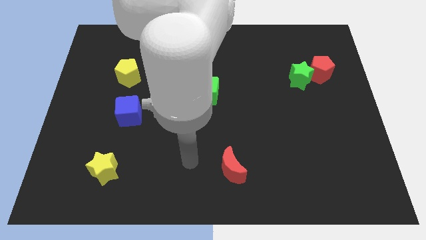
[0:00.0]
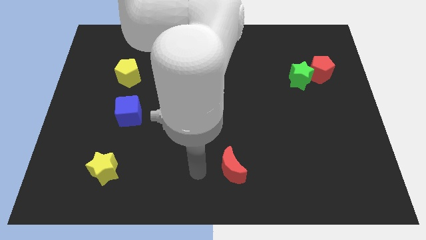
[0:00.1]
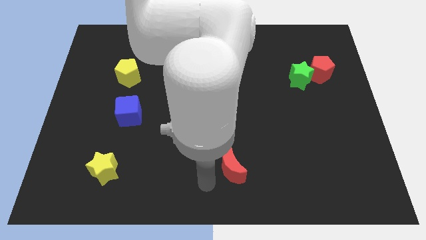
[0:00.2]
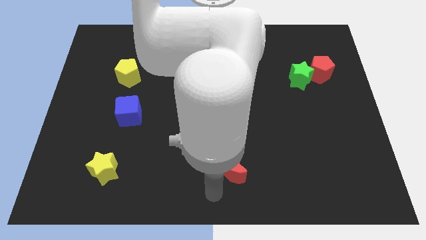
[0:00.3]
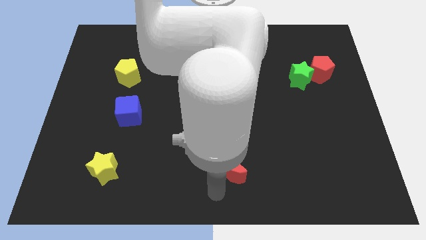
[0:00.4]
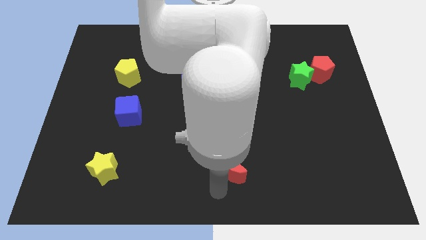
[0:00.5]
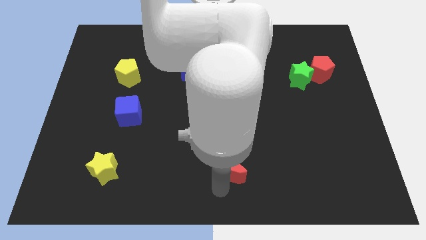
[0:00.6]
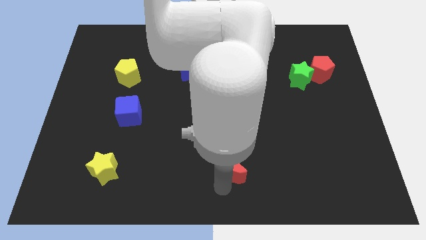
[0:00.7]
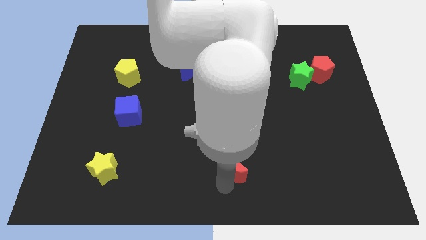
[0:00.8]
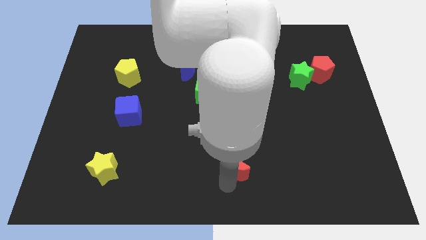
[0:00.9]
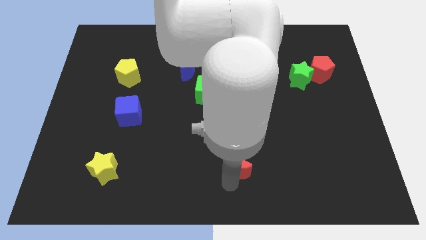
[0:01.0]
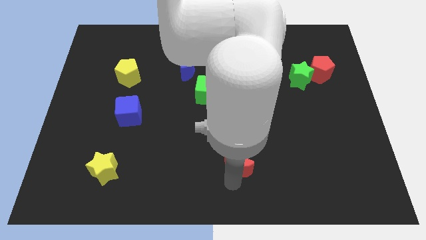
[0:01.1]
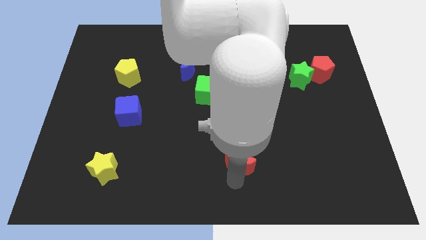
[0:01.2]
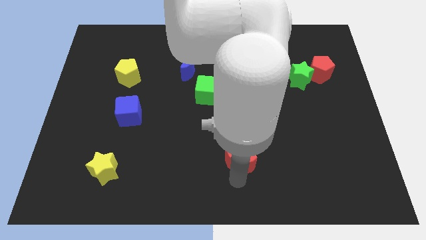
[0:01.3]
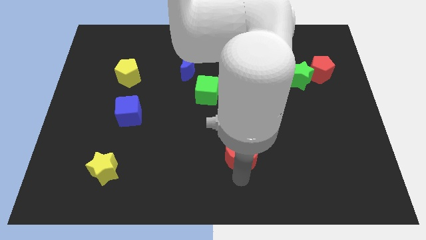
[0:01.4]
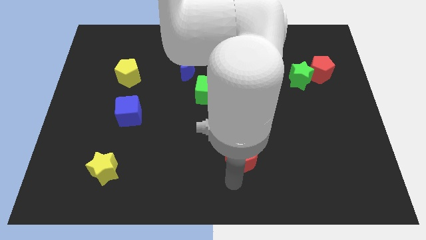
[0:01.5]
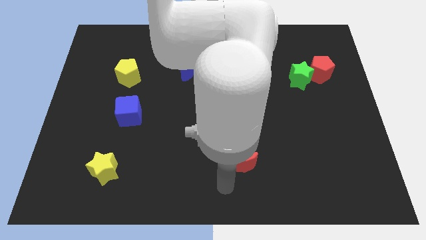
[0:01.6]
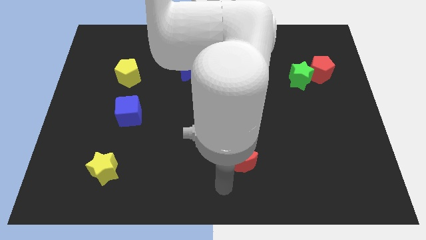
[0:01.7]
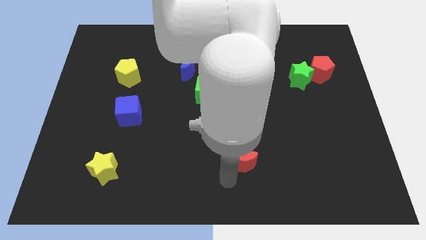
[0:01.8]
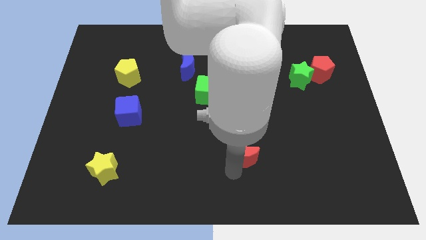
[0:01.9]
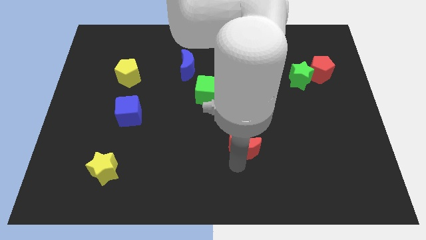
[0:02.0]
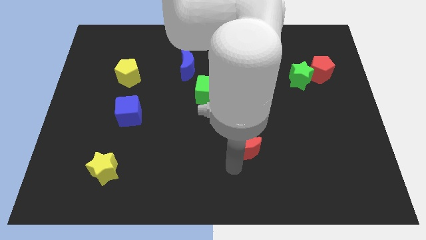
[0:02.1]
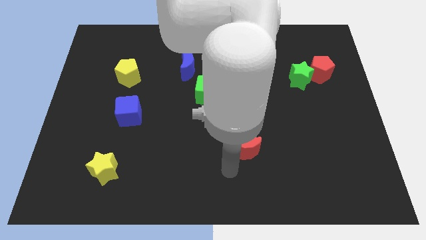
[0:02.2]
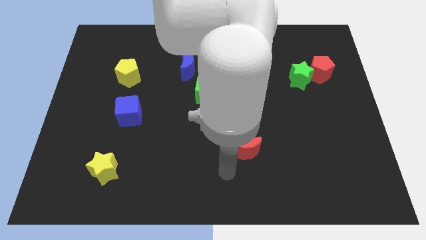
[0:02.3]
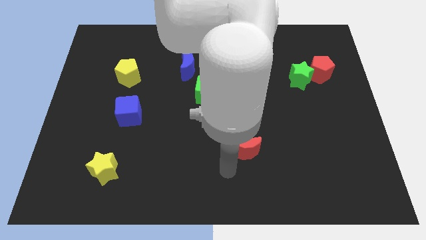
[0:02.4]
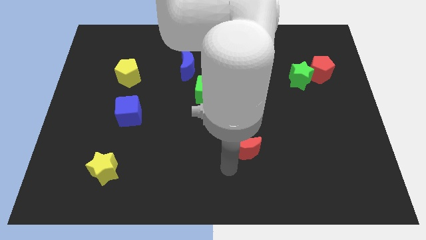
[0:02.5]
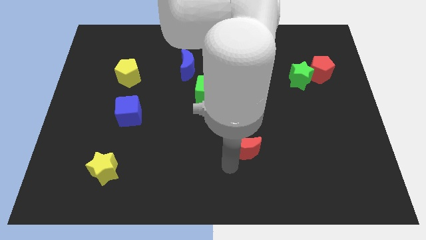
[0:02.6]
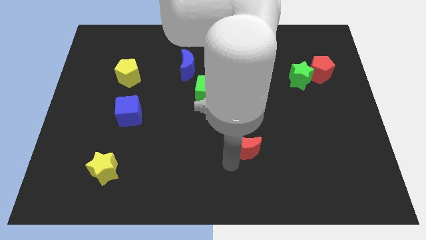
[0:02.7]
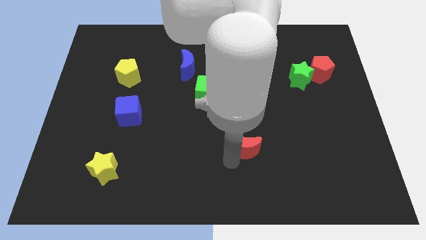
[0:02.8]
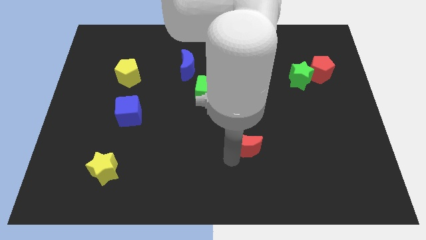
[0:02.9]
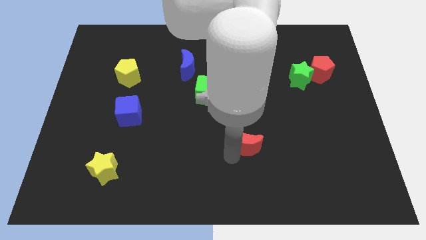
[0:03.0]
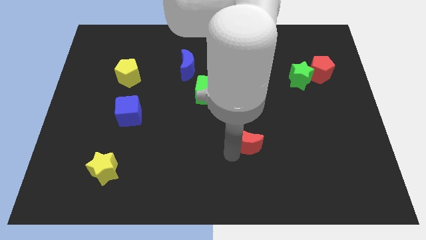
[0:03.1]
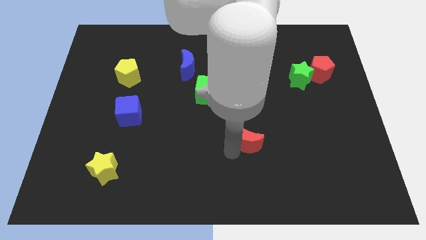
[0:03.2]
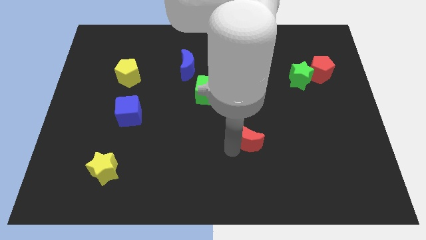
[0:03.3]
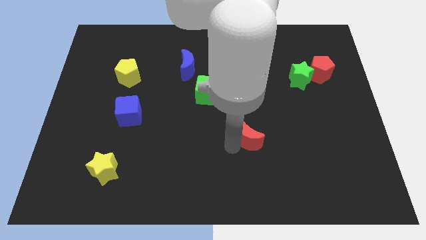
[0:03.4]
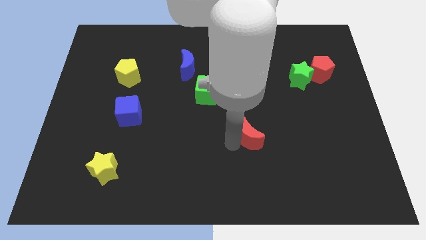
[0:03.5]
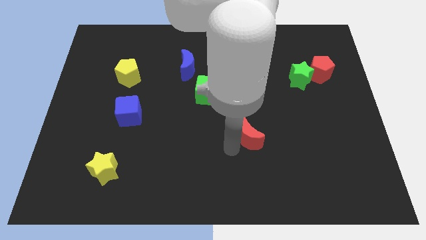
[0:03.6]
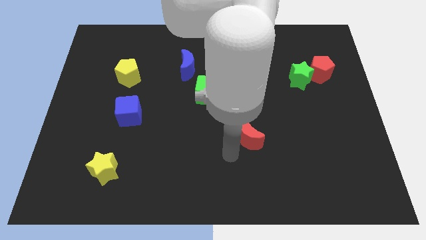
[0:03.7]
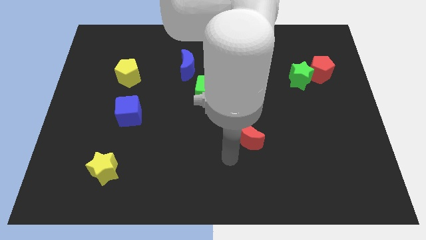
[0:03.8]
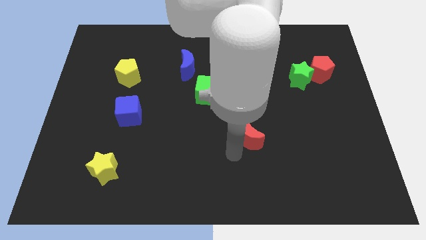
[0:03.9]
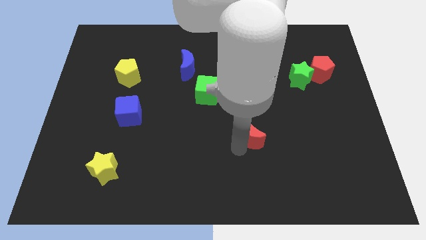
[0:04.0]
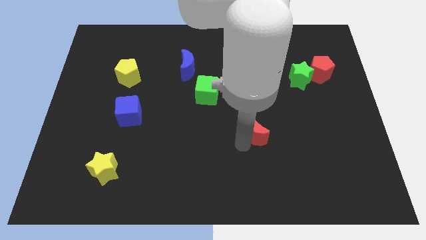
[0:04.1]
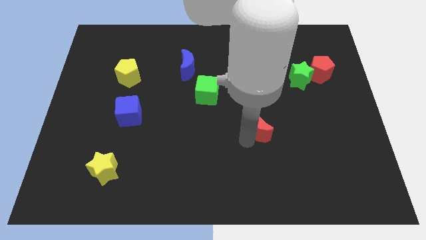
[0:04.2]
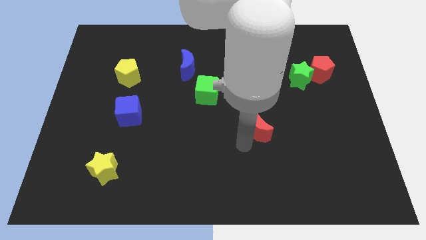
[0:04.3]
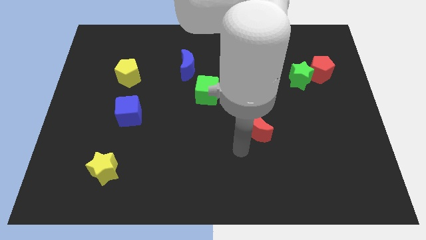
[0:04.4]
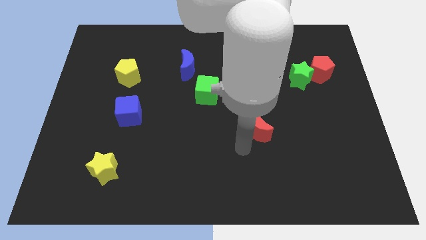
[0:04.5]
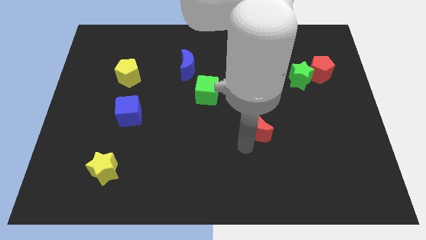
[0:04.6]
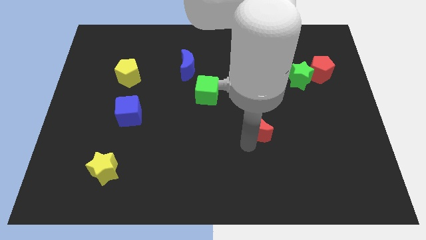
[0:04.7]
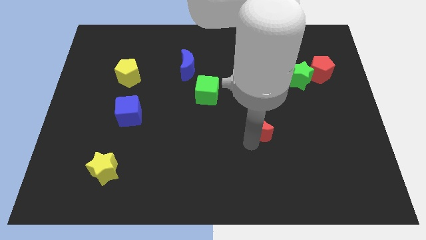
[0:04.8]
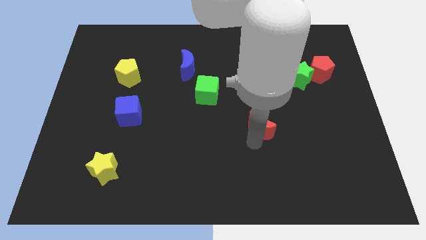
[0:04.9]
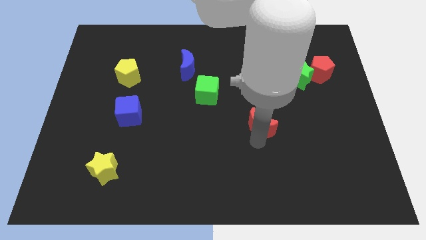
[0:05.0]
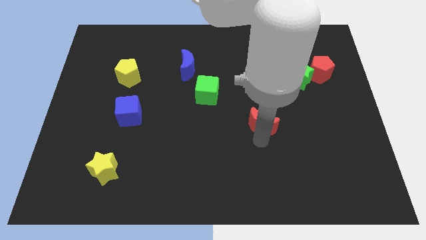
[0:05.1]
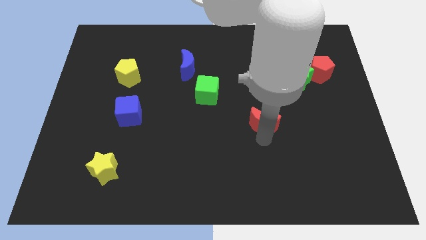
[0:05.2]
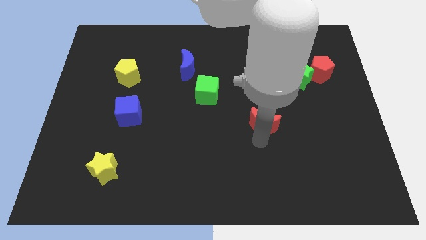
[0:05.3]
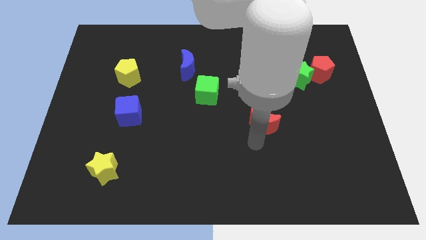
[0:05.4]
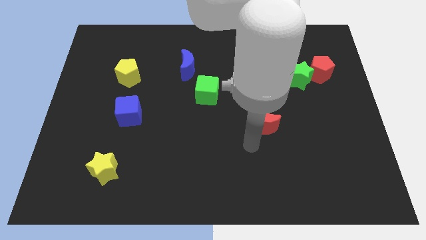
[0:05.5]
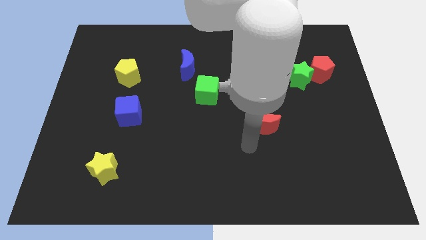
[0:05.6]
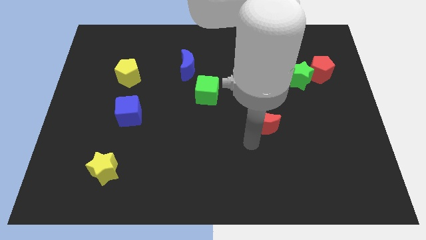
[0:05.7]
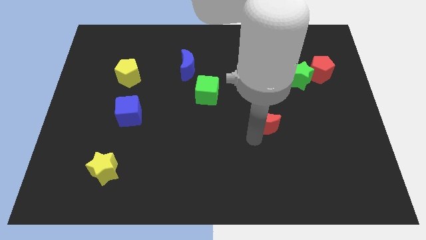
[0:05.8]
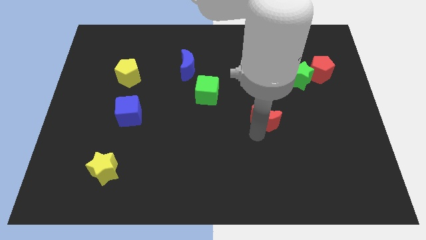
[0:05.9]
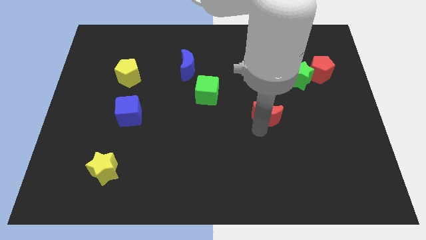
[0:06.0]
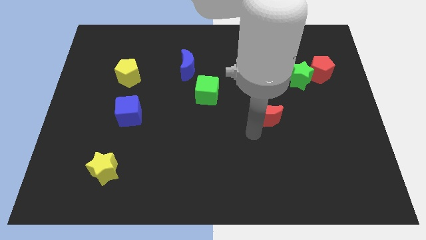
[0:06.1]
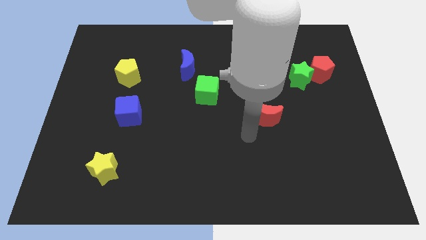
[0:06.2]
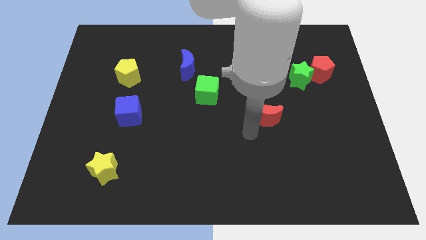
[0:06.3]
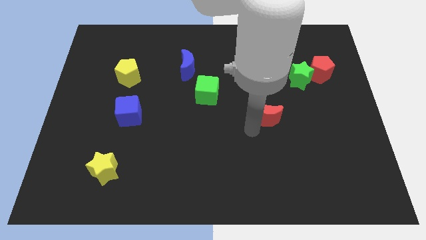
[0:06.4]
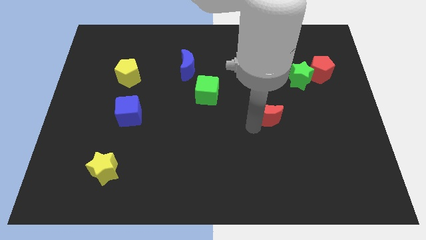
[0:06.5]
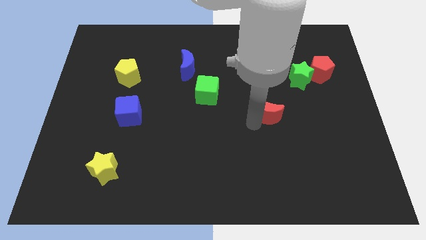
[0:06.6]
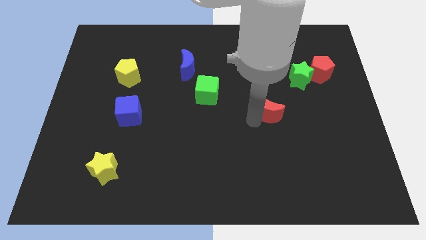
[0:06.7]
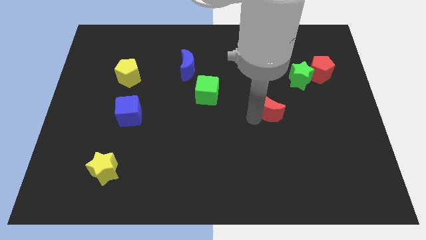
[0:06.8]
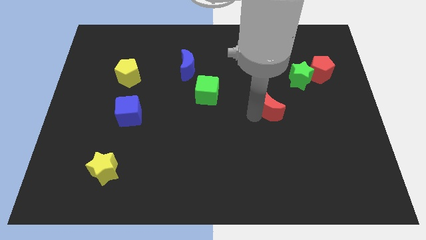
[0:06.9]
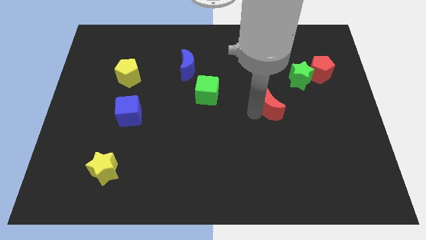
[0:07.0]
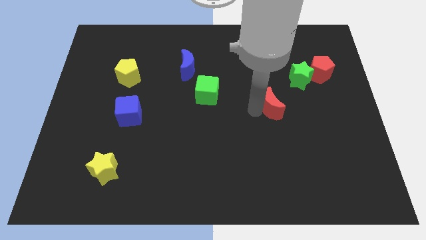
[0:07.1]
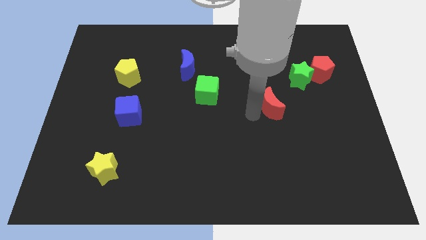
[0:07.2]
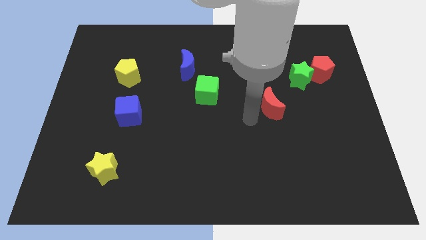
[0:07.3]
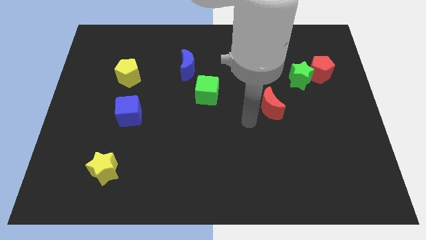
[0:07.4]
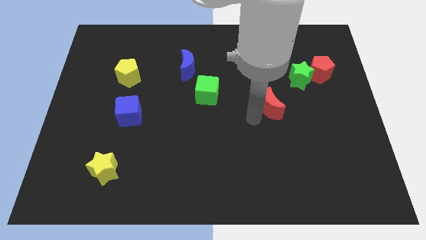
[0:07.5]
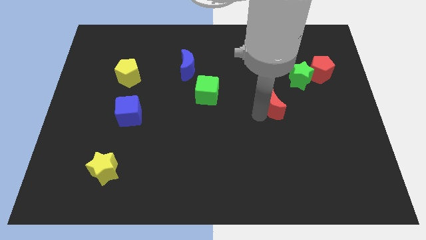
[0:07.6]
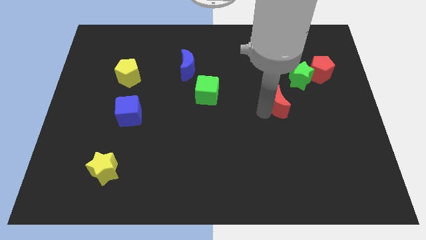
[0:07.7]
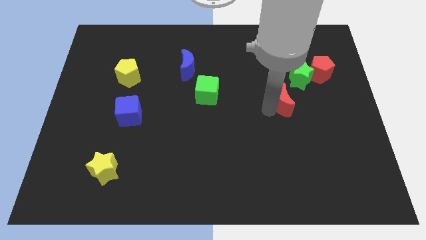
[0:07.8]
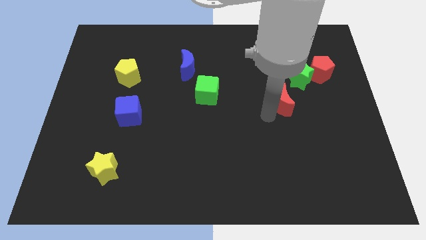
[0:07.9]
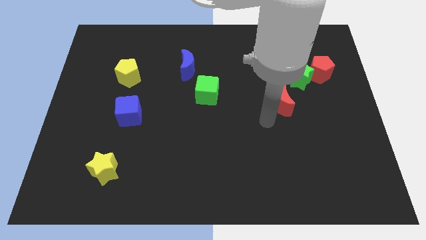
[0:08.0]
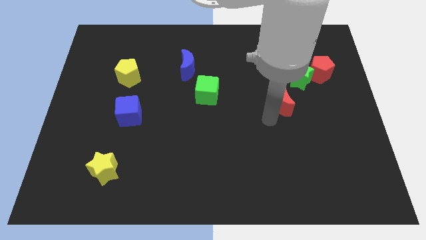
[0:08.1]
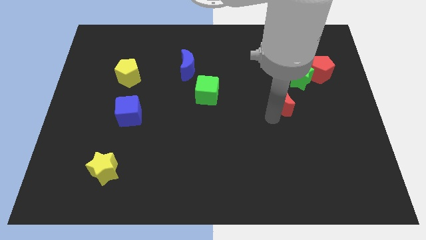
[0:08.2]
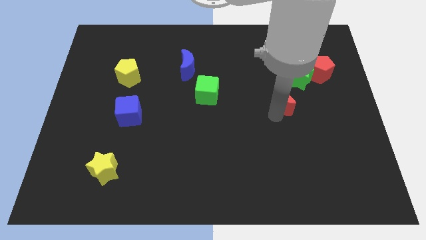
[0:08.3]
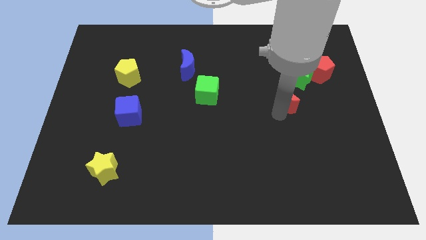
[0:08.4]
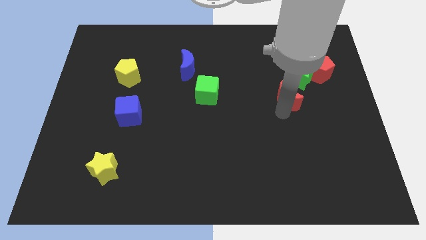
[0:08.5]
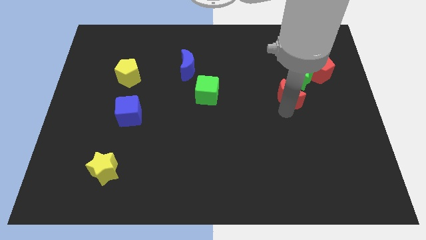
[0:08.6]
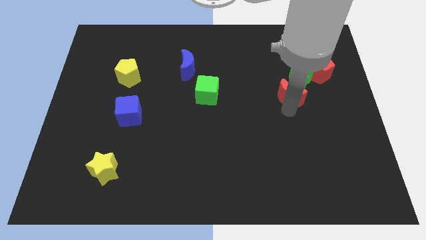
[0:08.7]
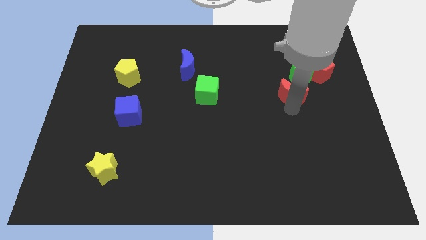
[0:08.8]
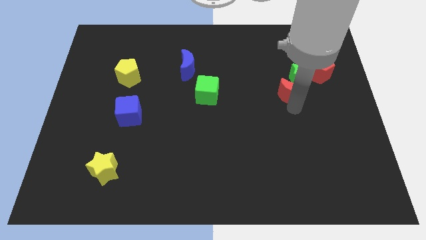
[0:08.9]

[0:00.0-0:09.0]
move the red moon next to the green star
